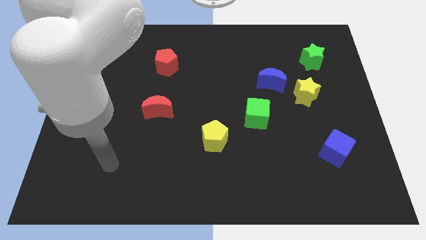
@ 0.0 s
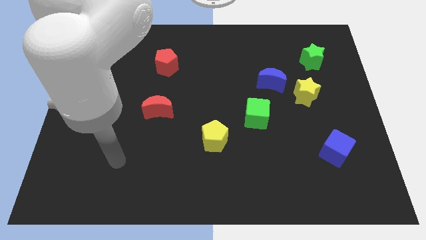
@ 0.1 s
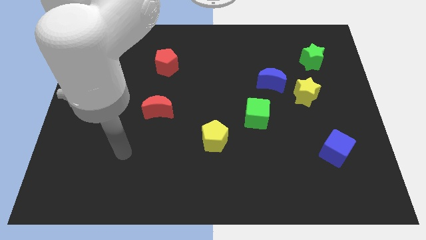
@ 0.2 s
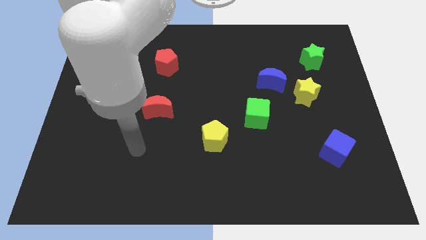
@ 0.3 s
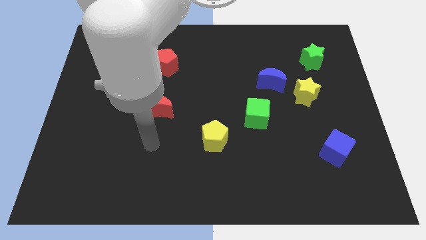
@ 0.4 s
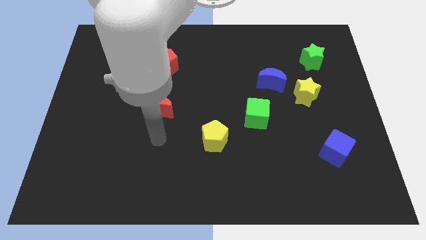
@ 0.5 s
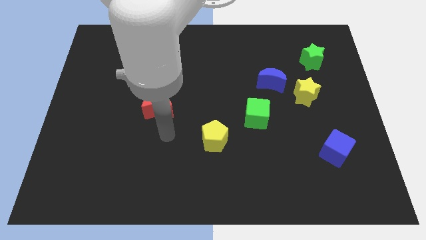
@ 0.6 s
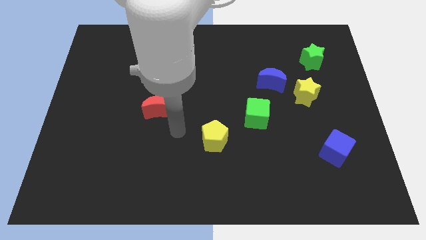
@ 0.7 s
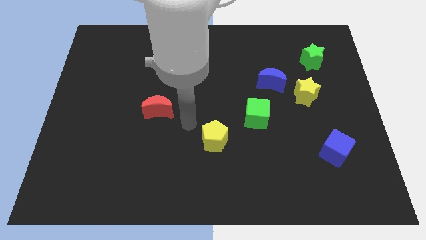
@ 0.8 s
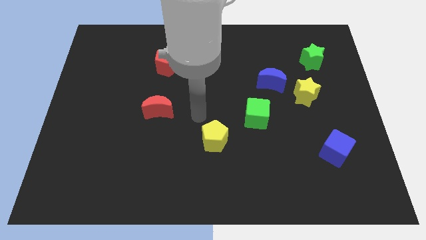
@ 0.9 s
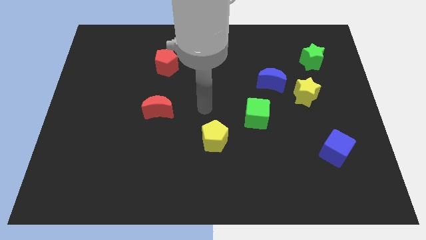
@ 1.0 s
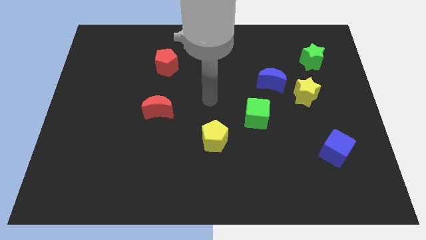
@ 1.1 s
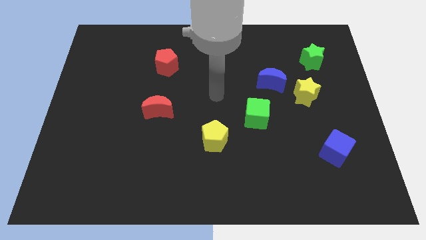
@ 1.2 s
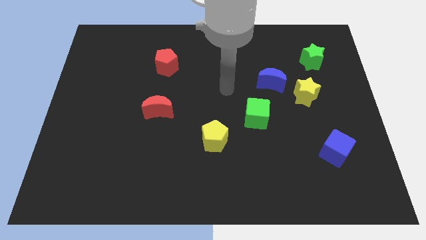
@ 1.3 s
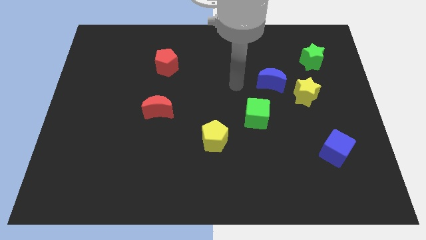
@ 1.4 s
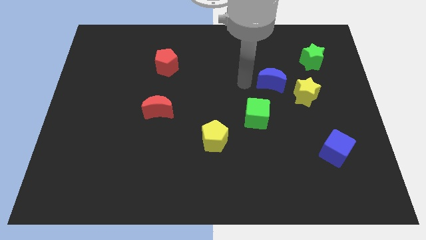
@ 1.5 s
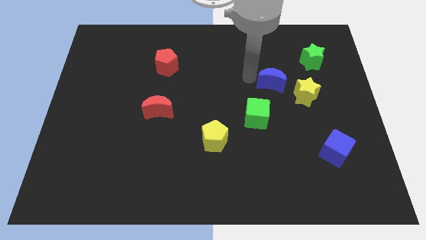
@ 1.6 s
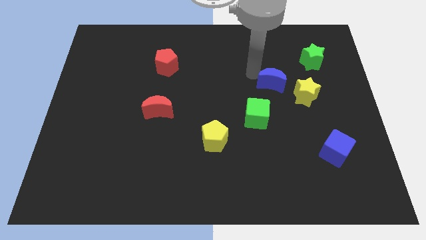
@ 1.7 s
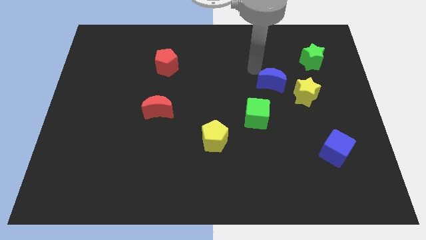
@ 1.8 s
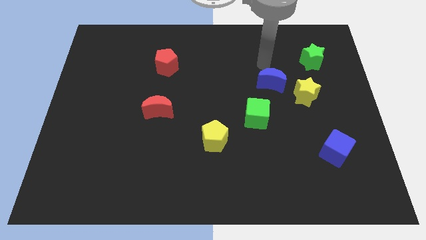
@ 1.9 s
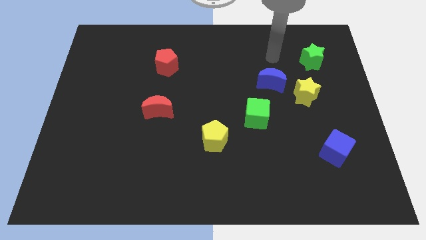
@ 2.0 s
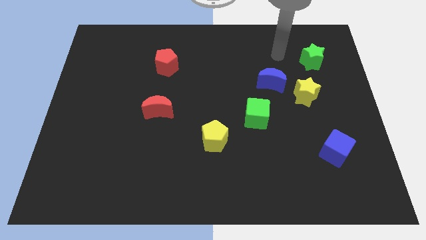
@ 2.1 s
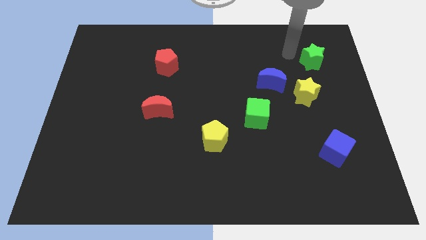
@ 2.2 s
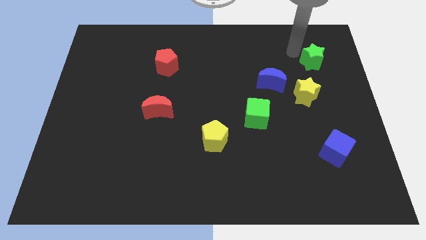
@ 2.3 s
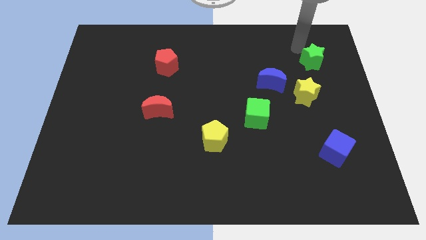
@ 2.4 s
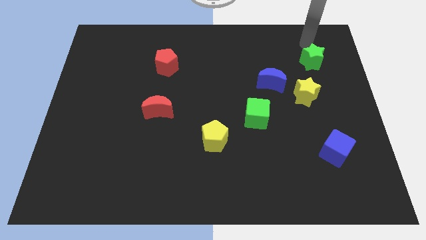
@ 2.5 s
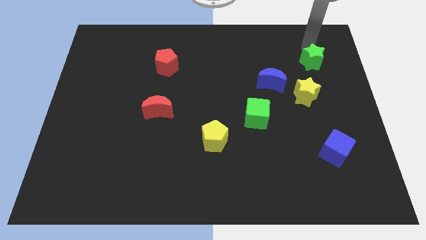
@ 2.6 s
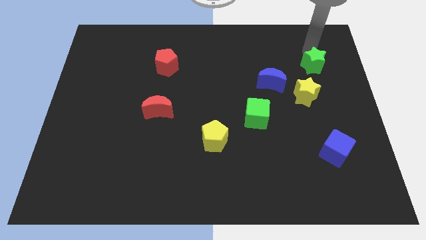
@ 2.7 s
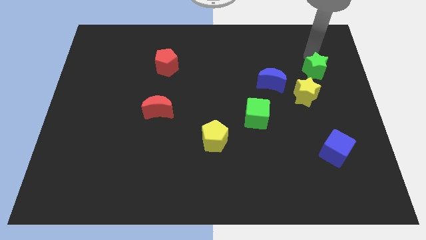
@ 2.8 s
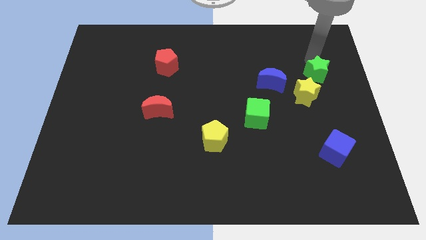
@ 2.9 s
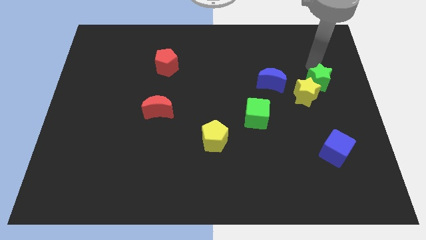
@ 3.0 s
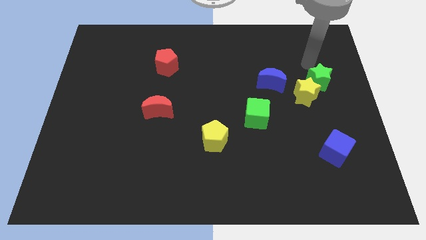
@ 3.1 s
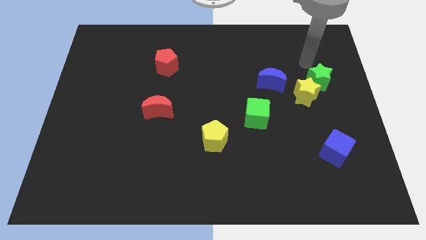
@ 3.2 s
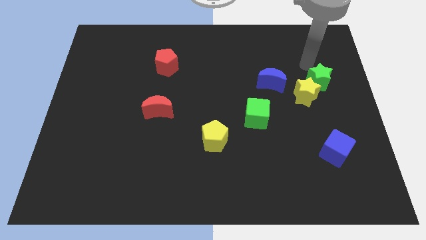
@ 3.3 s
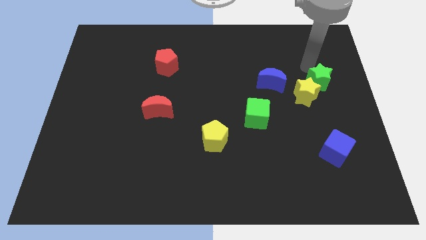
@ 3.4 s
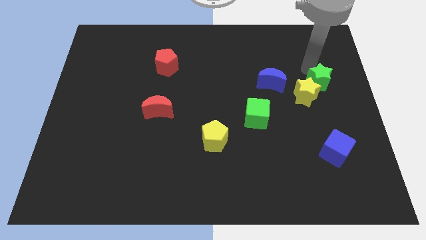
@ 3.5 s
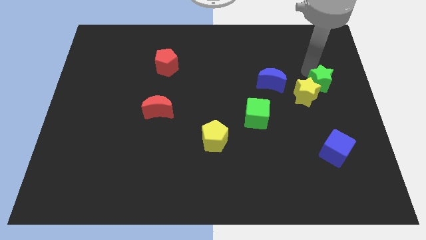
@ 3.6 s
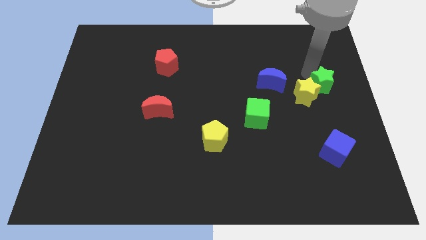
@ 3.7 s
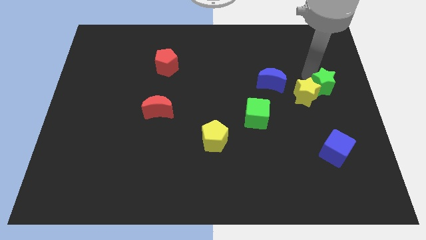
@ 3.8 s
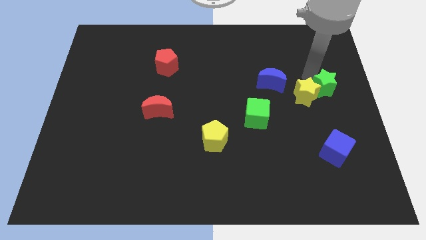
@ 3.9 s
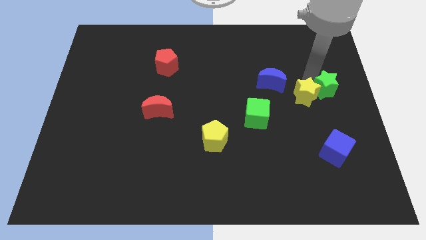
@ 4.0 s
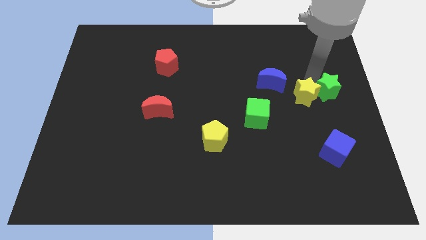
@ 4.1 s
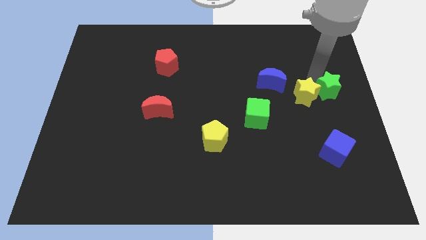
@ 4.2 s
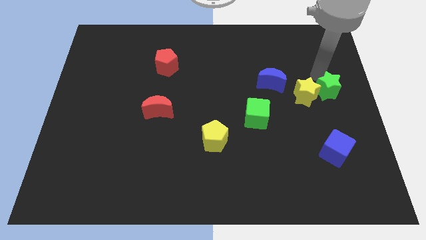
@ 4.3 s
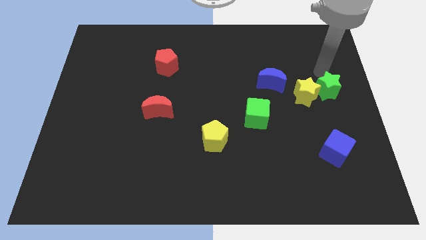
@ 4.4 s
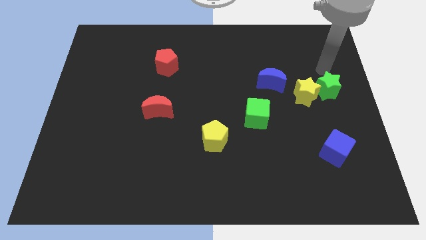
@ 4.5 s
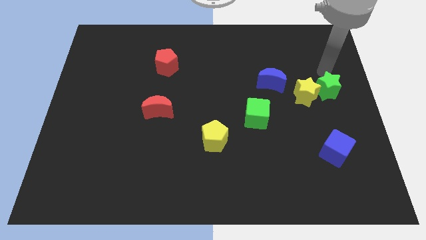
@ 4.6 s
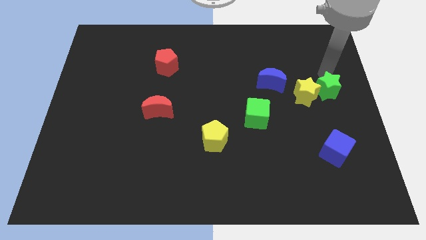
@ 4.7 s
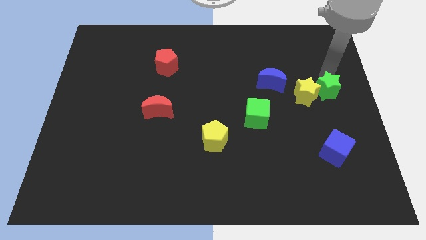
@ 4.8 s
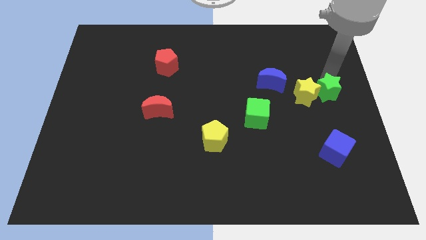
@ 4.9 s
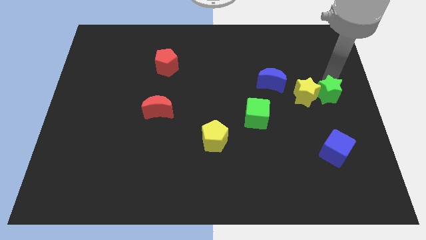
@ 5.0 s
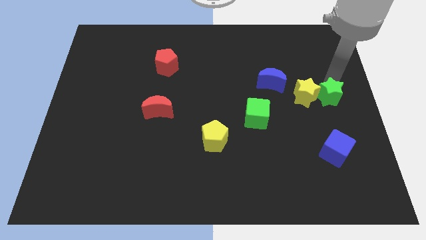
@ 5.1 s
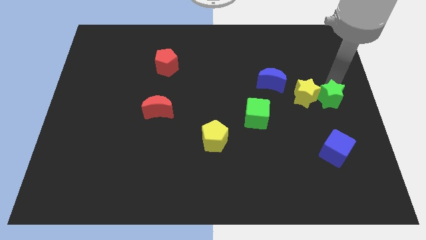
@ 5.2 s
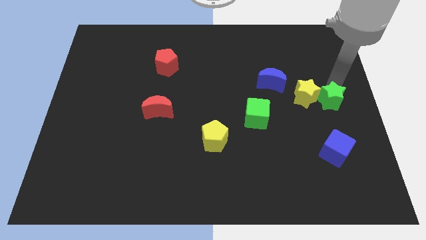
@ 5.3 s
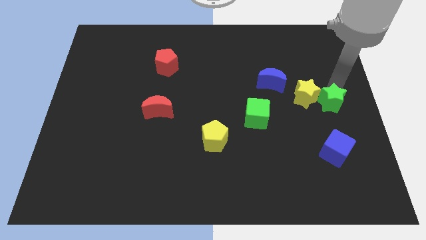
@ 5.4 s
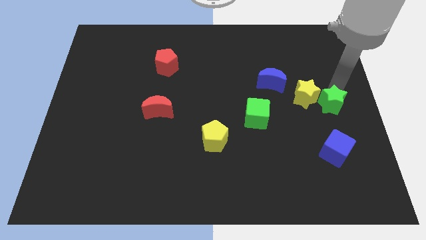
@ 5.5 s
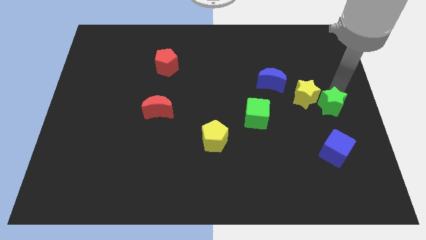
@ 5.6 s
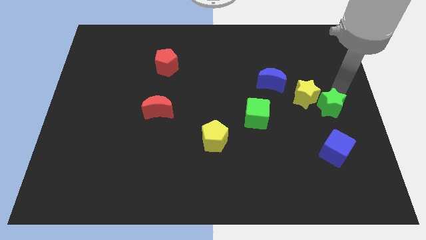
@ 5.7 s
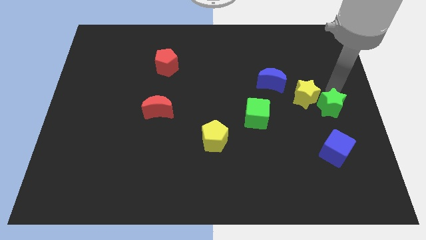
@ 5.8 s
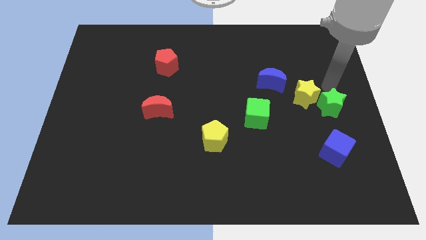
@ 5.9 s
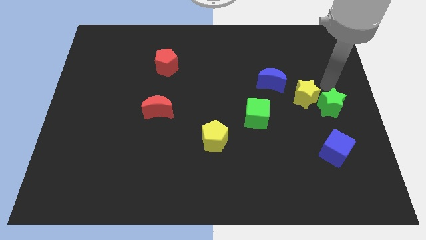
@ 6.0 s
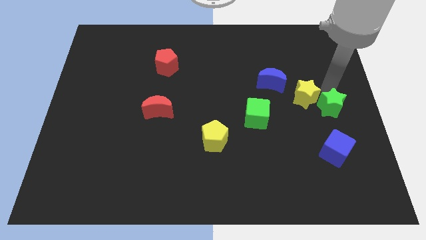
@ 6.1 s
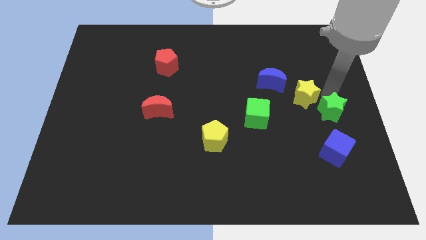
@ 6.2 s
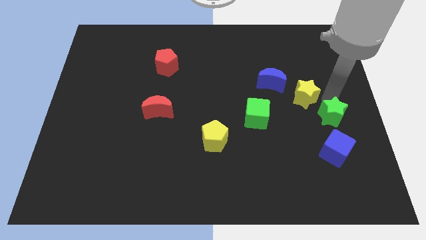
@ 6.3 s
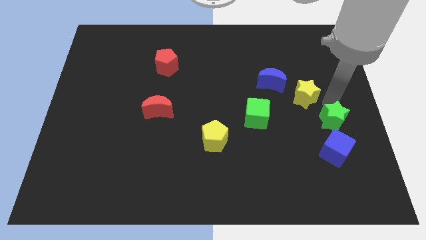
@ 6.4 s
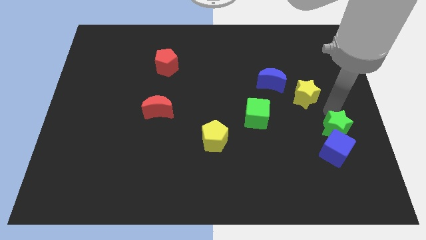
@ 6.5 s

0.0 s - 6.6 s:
put the green star close to the blue cube

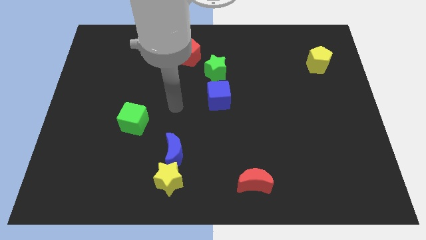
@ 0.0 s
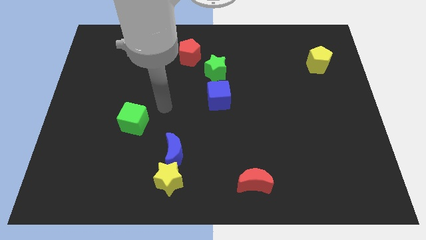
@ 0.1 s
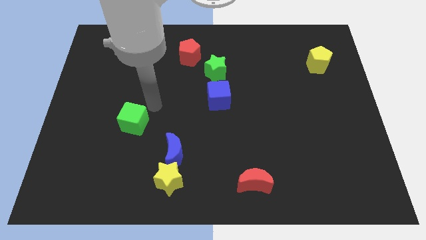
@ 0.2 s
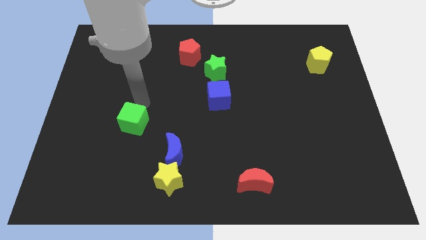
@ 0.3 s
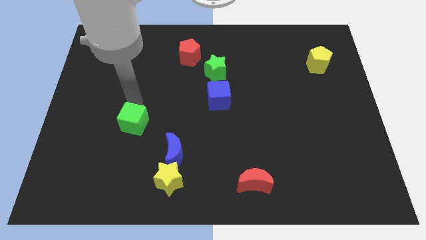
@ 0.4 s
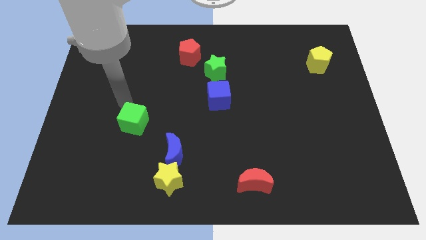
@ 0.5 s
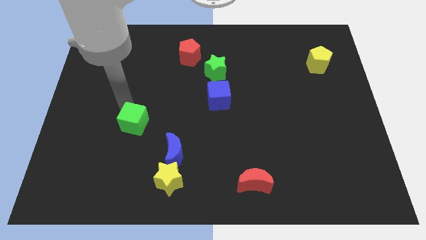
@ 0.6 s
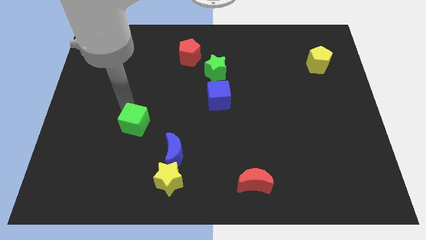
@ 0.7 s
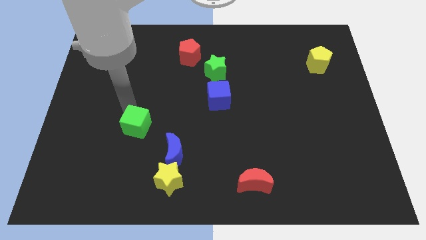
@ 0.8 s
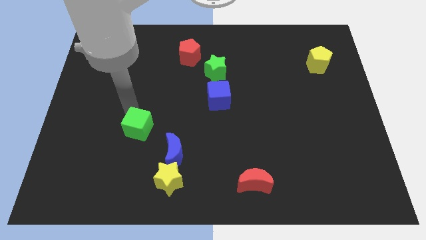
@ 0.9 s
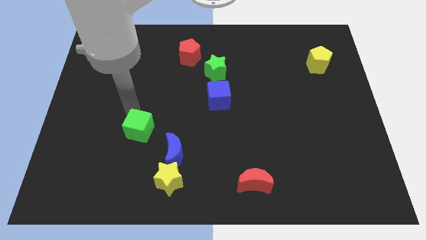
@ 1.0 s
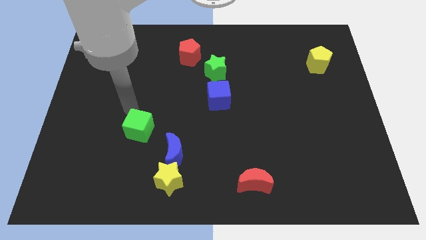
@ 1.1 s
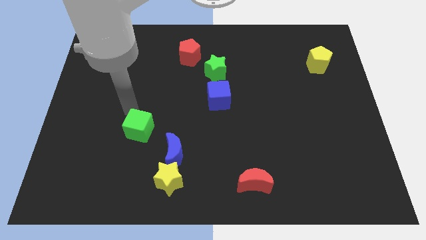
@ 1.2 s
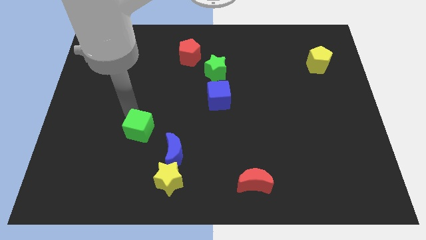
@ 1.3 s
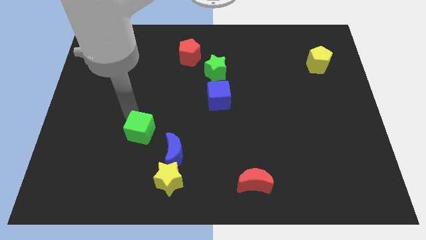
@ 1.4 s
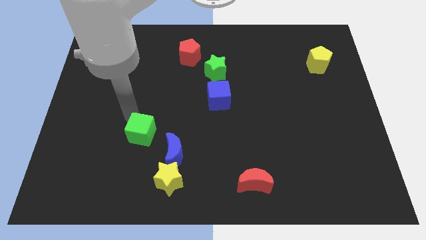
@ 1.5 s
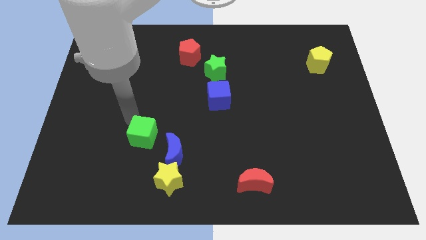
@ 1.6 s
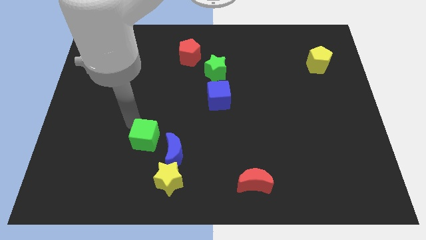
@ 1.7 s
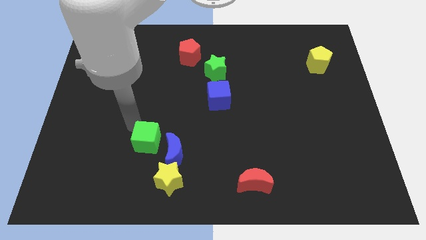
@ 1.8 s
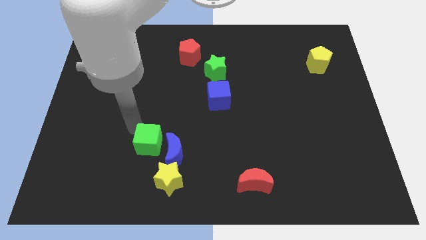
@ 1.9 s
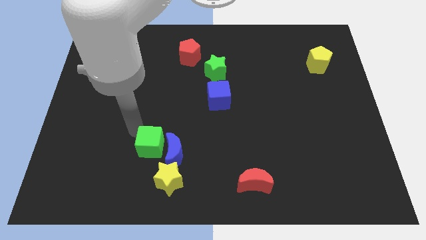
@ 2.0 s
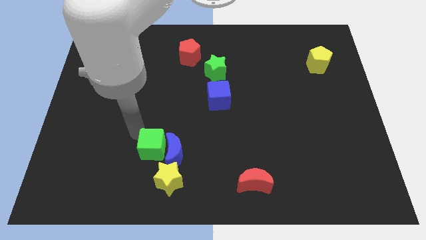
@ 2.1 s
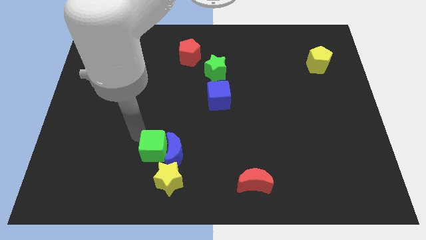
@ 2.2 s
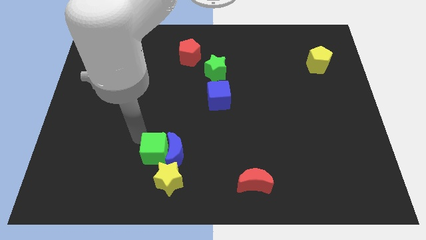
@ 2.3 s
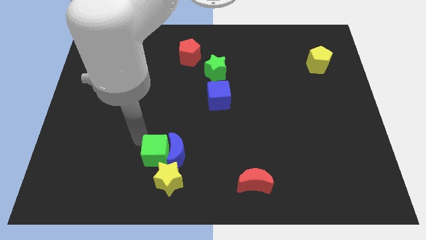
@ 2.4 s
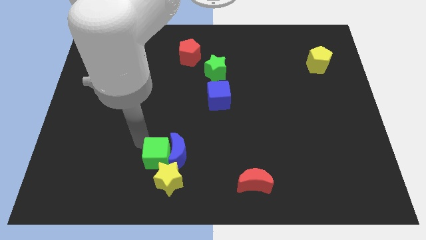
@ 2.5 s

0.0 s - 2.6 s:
push the green cube to the yellow star
